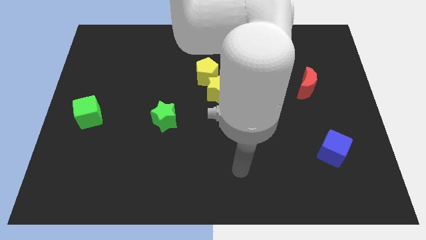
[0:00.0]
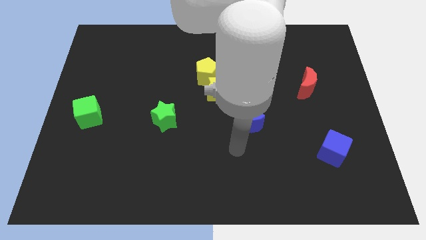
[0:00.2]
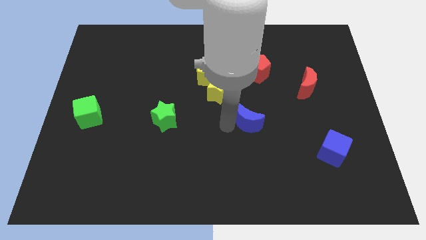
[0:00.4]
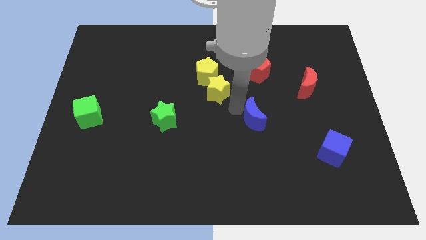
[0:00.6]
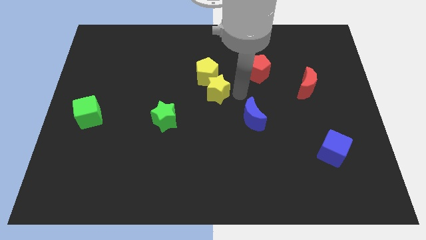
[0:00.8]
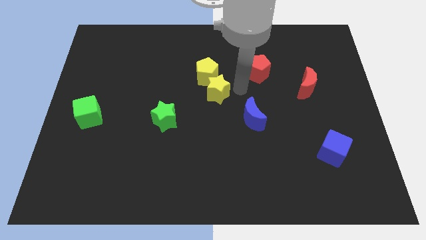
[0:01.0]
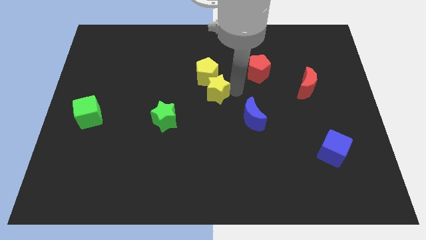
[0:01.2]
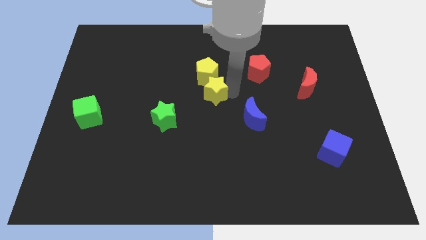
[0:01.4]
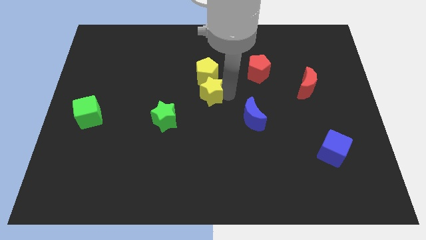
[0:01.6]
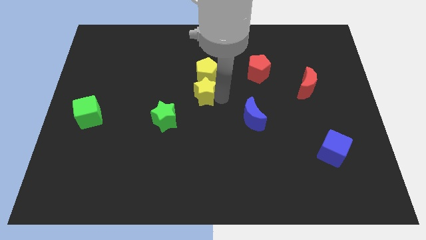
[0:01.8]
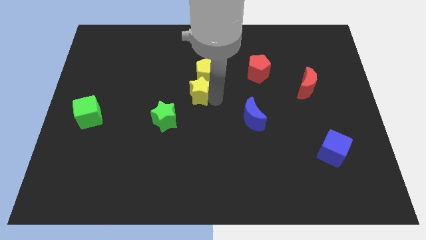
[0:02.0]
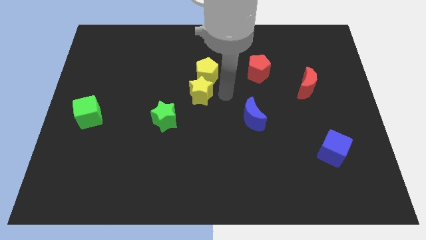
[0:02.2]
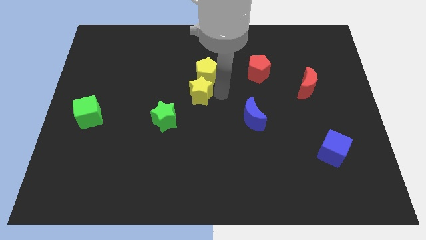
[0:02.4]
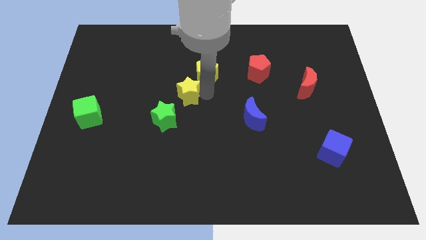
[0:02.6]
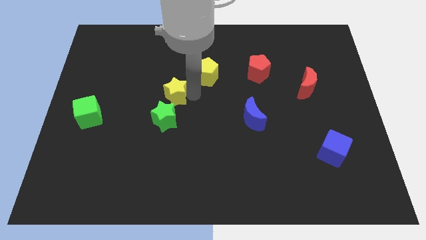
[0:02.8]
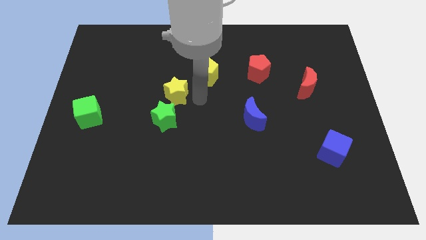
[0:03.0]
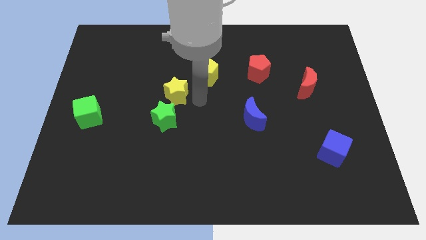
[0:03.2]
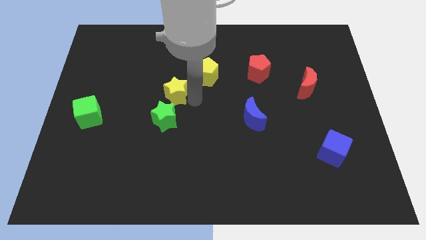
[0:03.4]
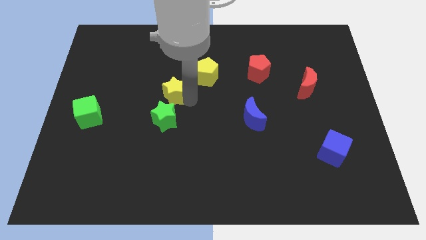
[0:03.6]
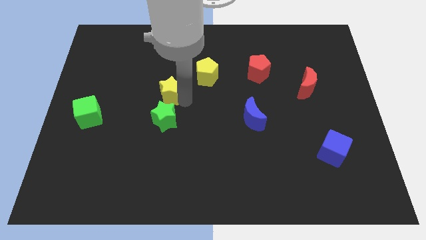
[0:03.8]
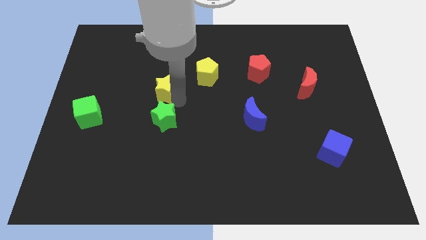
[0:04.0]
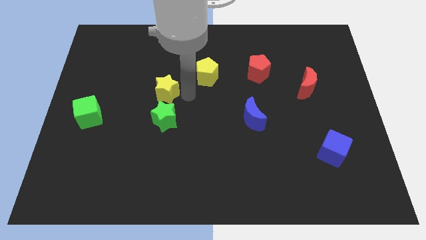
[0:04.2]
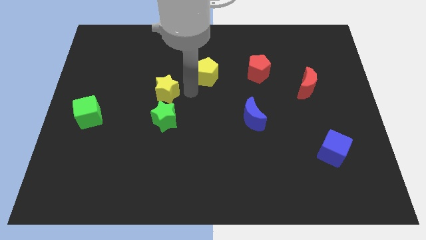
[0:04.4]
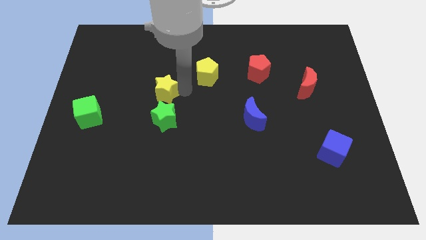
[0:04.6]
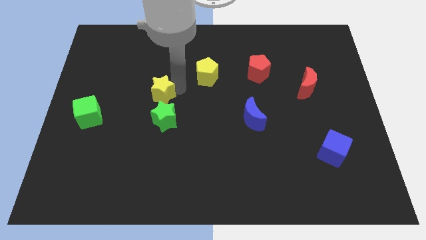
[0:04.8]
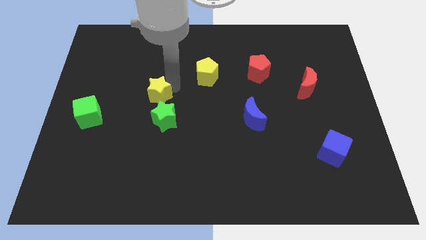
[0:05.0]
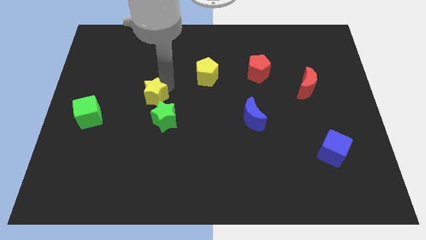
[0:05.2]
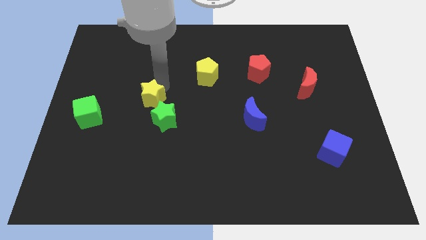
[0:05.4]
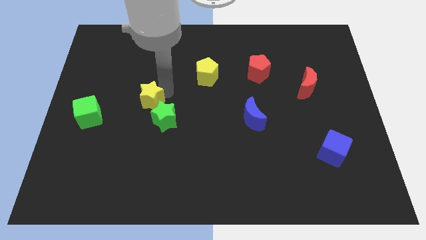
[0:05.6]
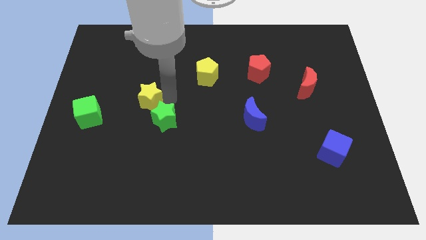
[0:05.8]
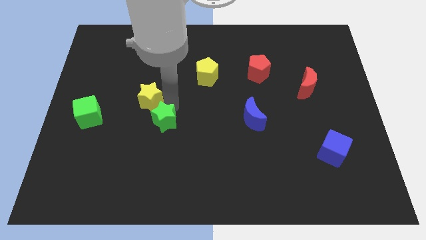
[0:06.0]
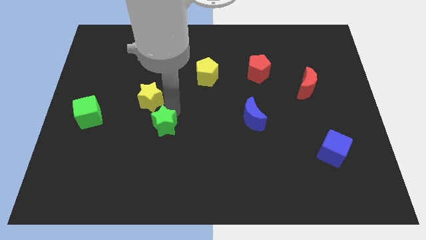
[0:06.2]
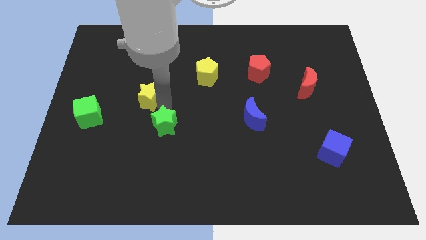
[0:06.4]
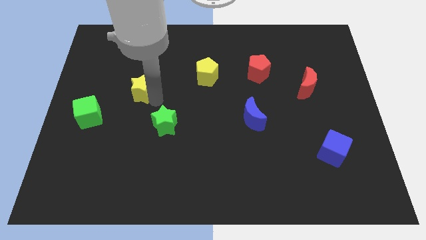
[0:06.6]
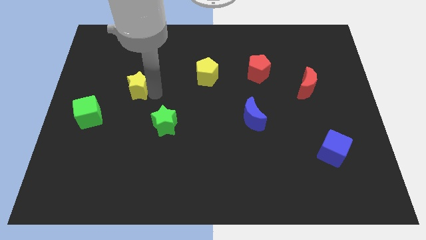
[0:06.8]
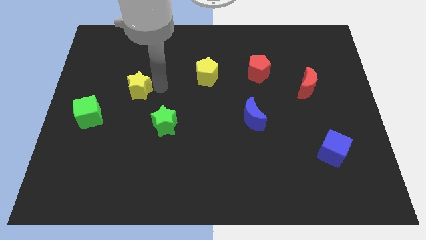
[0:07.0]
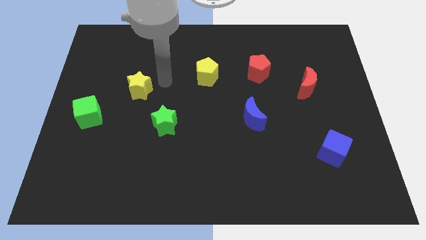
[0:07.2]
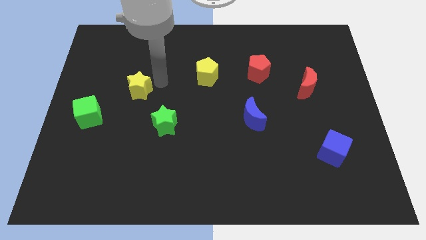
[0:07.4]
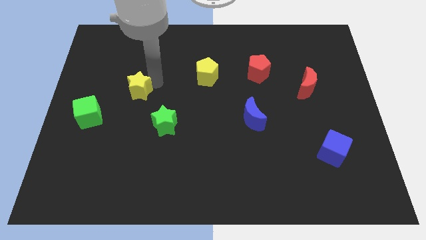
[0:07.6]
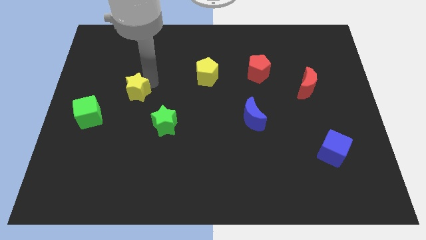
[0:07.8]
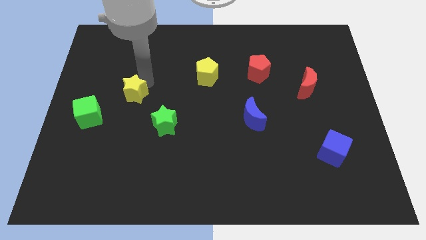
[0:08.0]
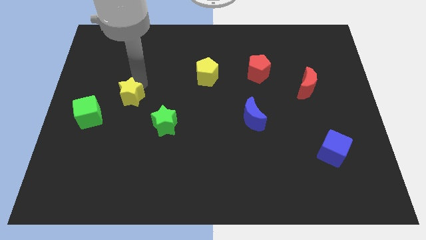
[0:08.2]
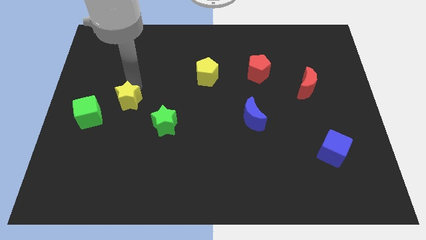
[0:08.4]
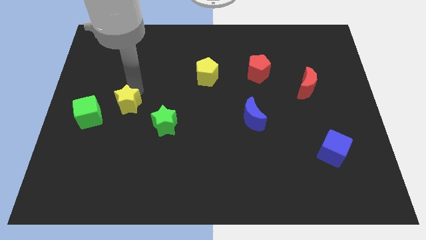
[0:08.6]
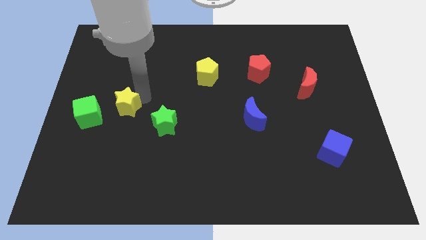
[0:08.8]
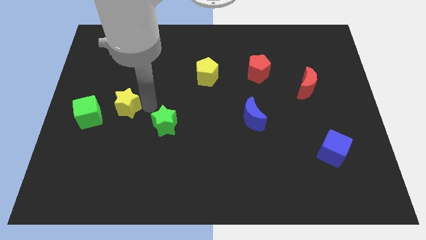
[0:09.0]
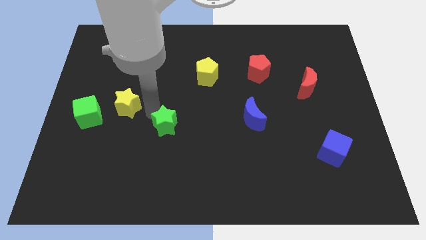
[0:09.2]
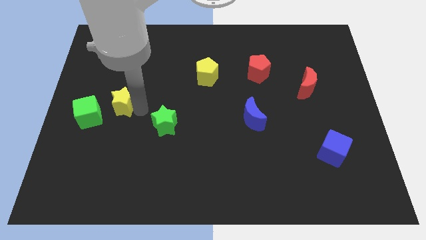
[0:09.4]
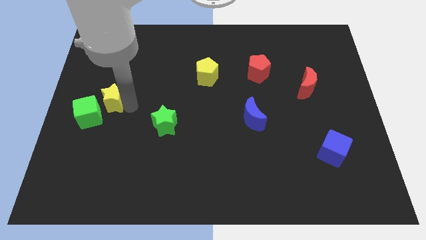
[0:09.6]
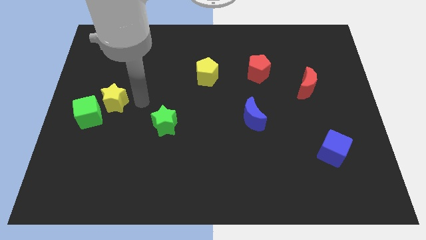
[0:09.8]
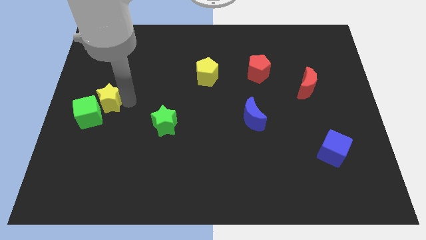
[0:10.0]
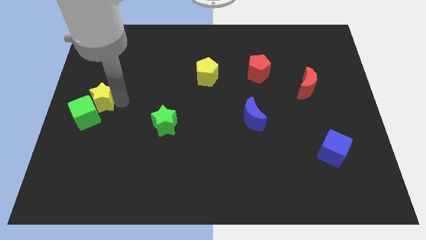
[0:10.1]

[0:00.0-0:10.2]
push the yellow star to the center left

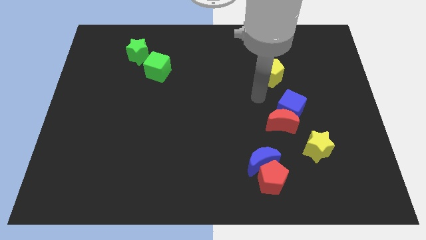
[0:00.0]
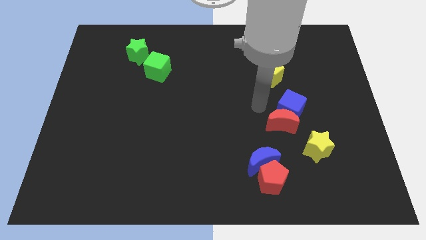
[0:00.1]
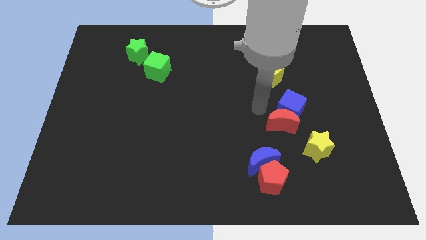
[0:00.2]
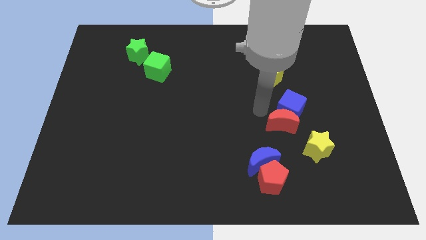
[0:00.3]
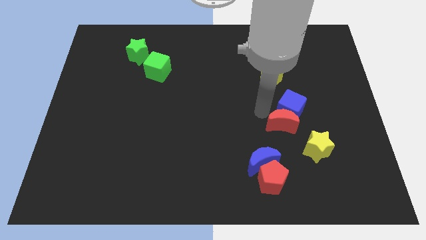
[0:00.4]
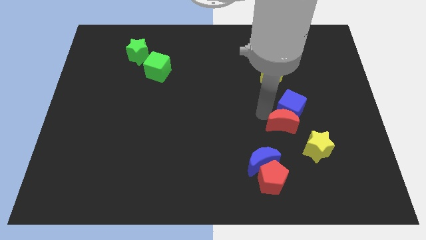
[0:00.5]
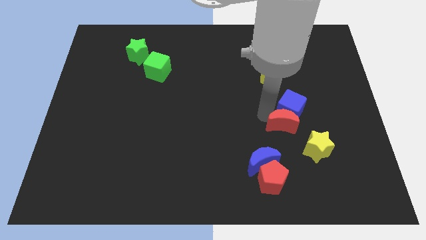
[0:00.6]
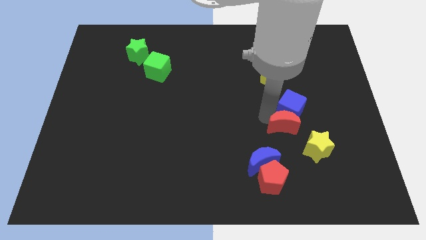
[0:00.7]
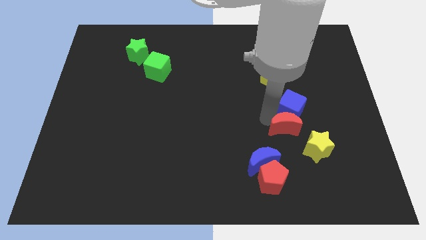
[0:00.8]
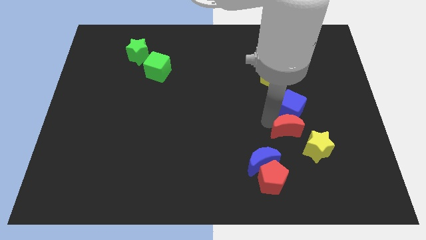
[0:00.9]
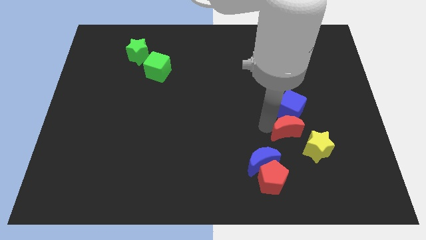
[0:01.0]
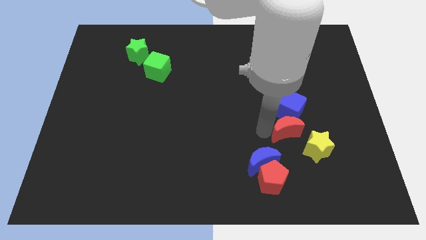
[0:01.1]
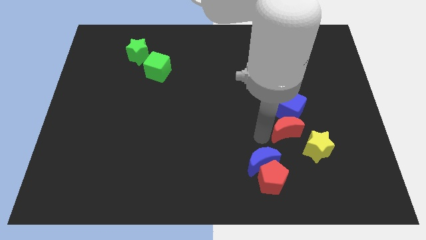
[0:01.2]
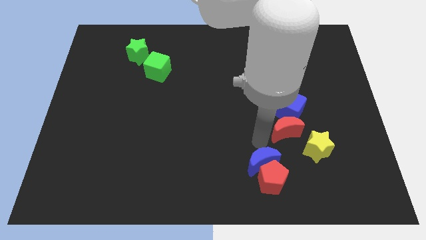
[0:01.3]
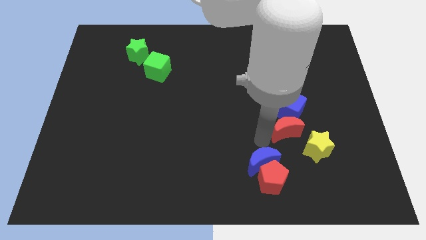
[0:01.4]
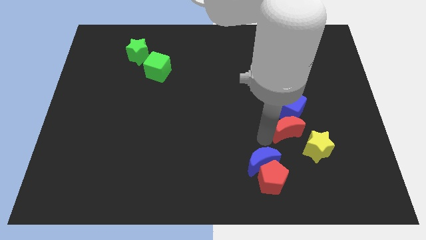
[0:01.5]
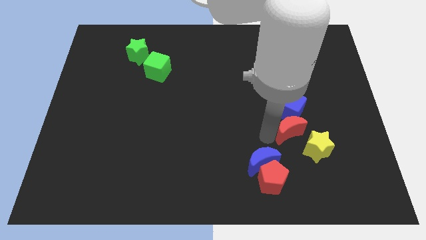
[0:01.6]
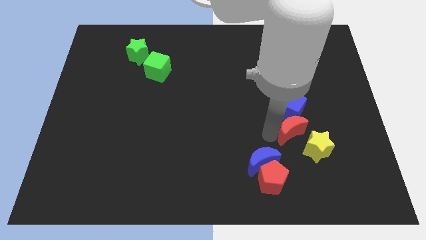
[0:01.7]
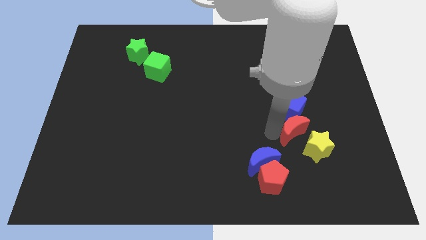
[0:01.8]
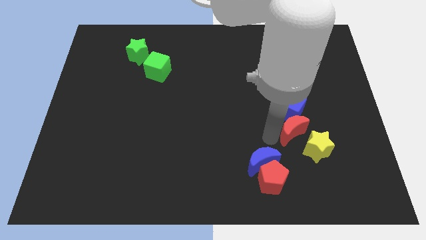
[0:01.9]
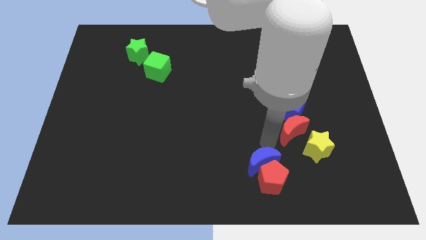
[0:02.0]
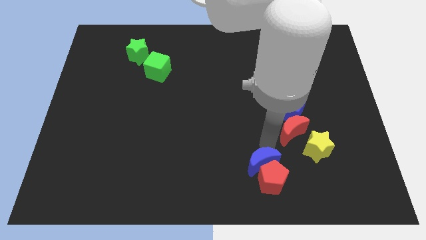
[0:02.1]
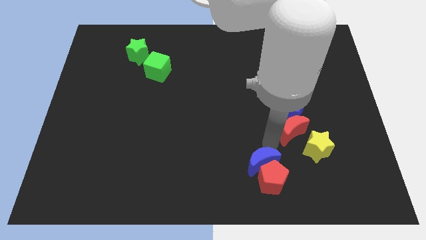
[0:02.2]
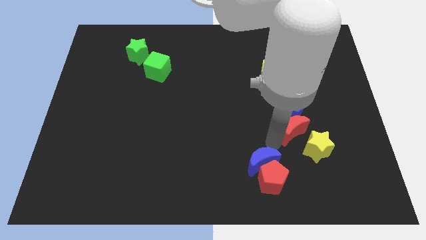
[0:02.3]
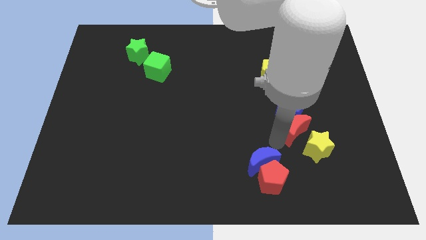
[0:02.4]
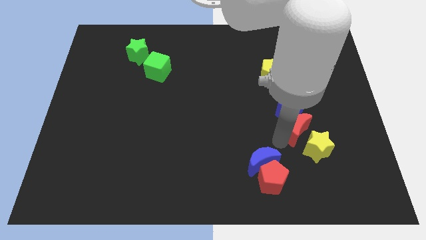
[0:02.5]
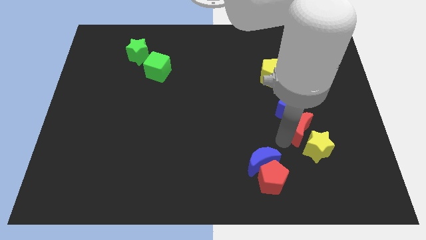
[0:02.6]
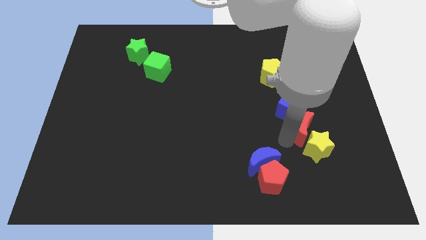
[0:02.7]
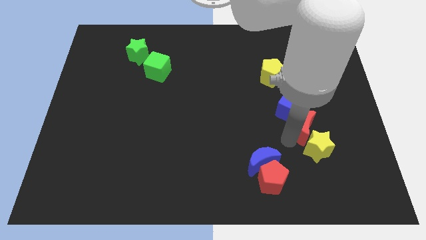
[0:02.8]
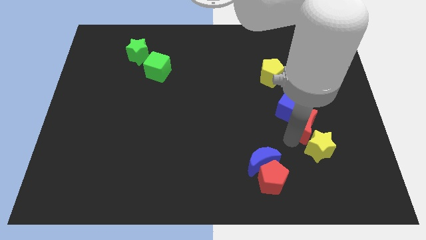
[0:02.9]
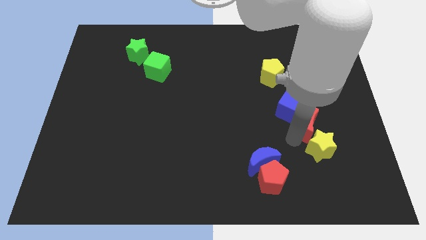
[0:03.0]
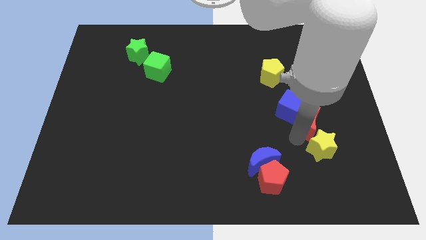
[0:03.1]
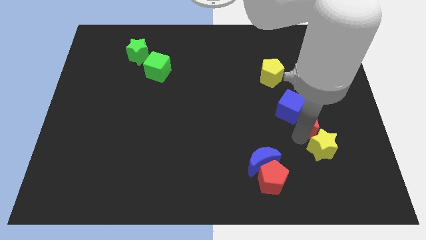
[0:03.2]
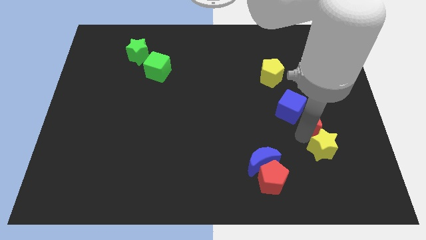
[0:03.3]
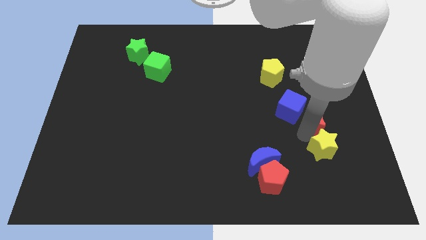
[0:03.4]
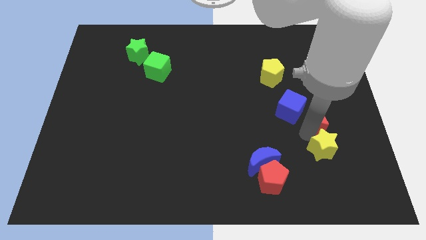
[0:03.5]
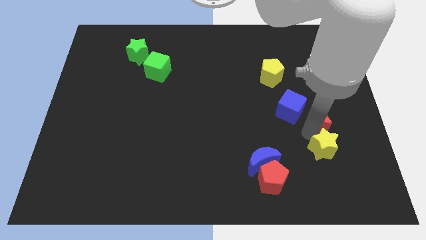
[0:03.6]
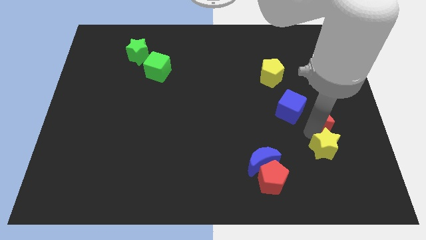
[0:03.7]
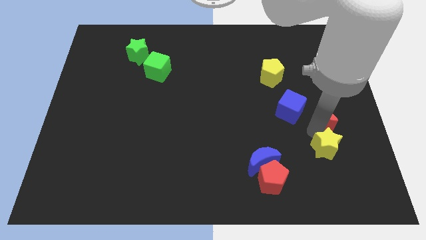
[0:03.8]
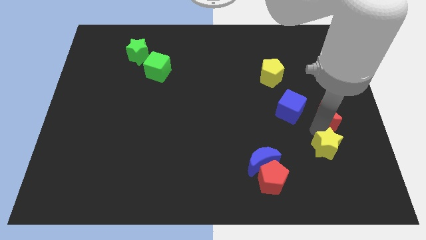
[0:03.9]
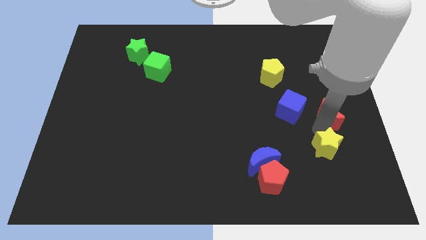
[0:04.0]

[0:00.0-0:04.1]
move the red moon to the center right
